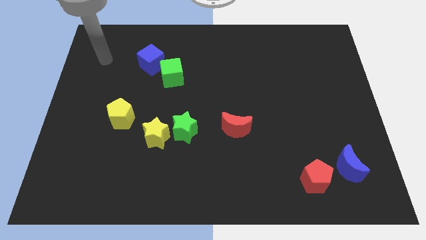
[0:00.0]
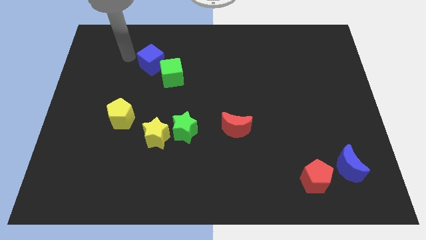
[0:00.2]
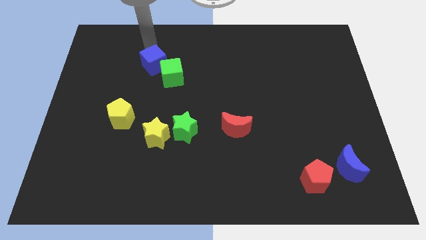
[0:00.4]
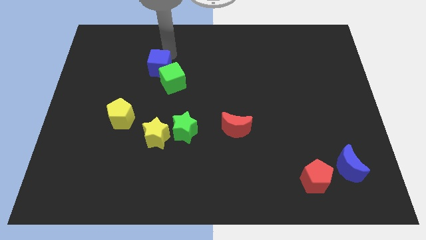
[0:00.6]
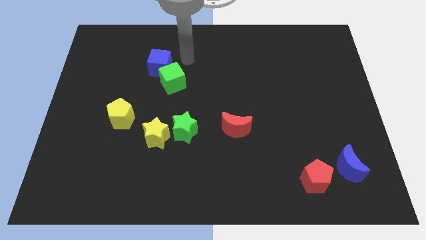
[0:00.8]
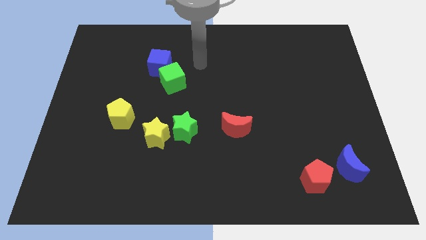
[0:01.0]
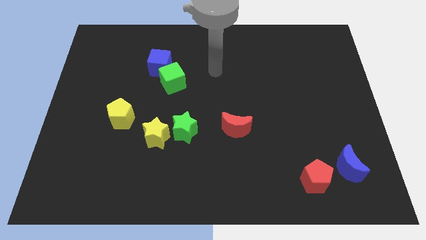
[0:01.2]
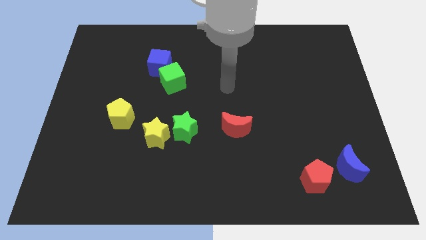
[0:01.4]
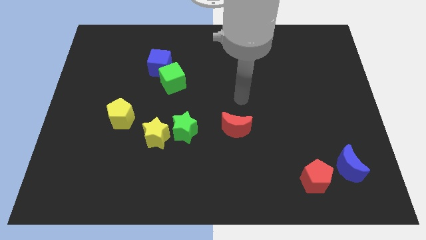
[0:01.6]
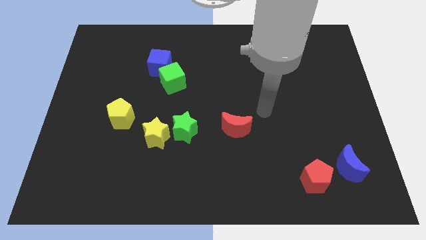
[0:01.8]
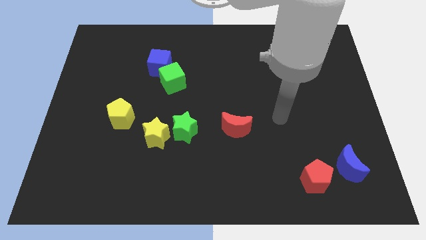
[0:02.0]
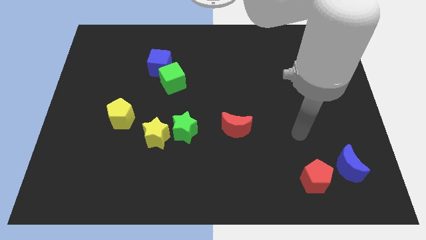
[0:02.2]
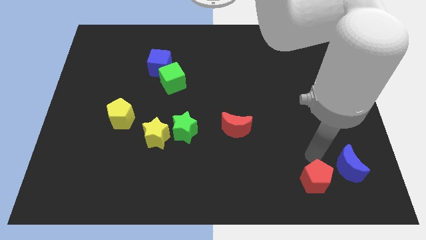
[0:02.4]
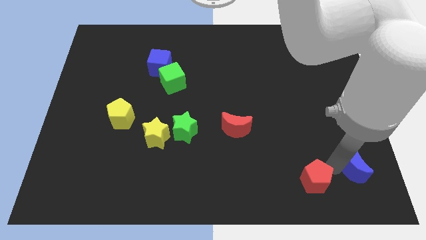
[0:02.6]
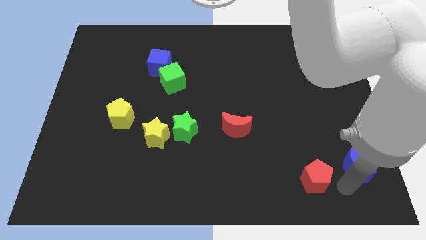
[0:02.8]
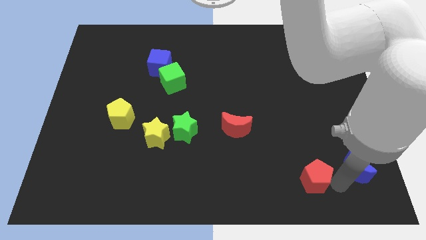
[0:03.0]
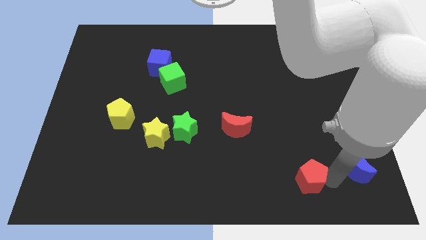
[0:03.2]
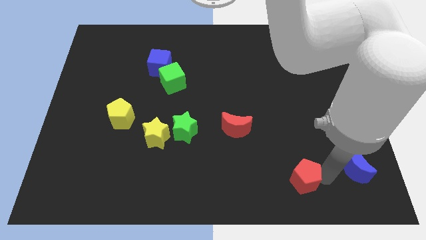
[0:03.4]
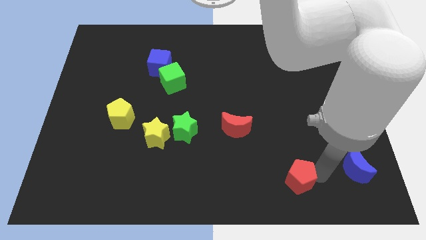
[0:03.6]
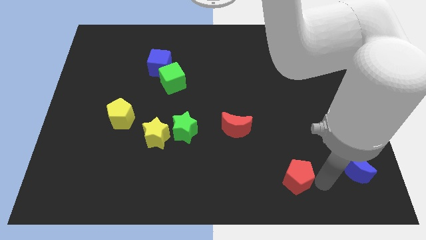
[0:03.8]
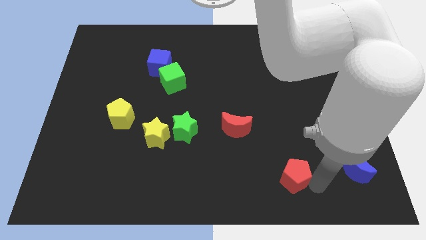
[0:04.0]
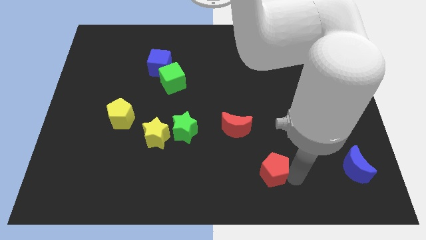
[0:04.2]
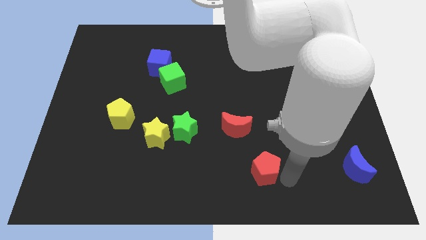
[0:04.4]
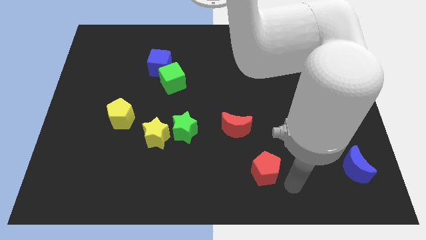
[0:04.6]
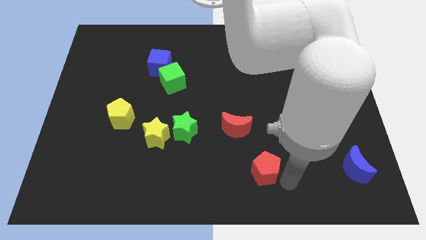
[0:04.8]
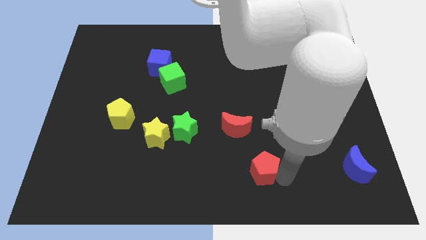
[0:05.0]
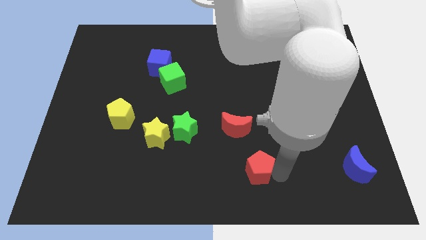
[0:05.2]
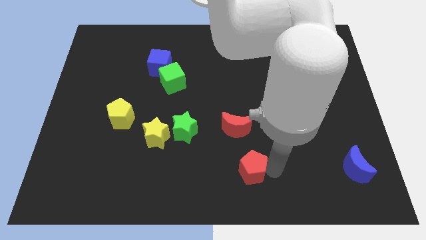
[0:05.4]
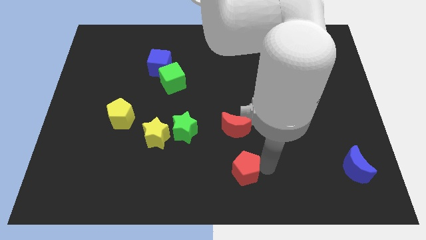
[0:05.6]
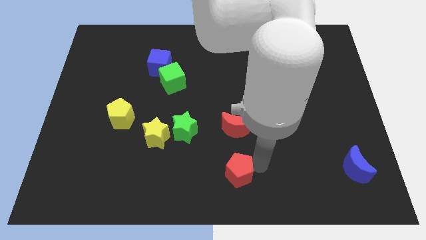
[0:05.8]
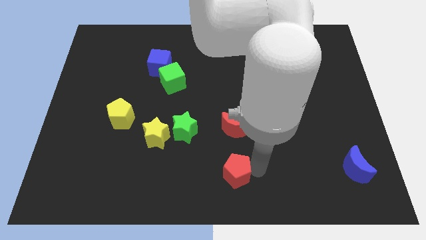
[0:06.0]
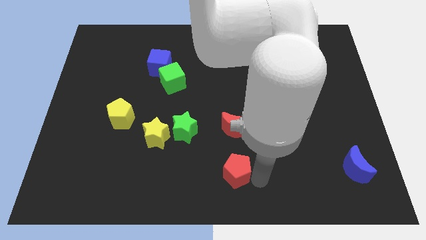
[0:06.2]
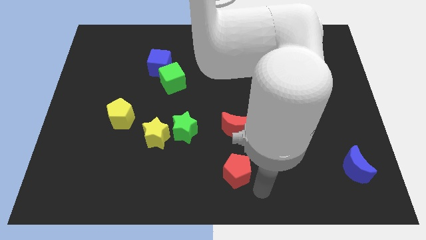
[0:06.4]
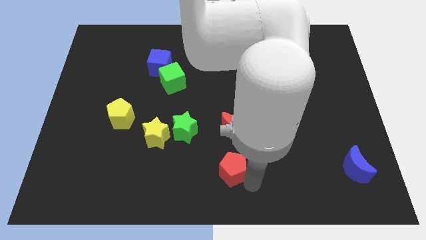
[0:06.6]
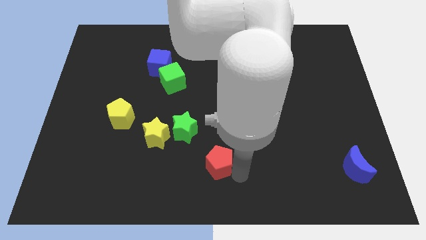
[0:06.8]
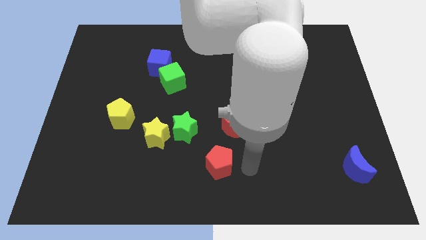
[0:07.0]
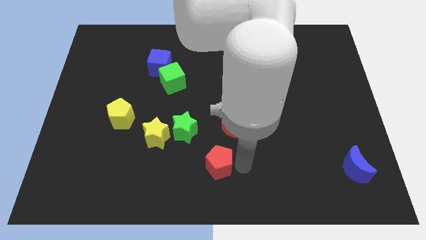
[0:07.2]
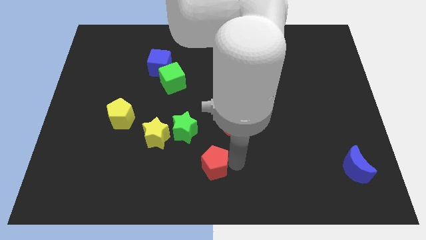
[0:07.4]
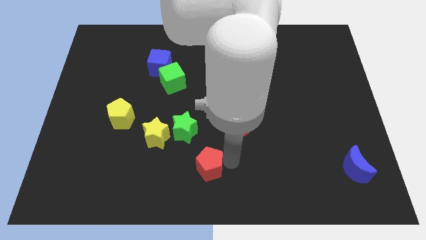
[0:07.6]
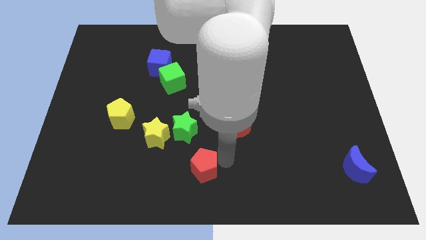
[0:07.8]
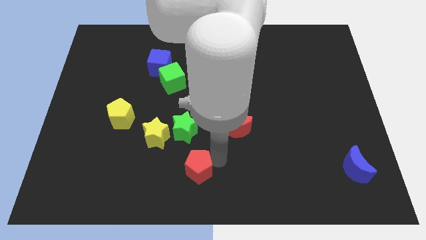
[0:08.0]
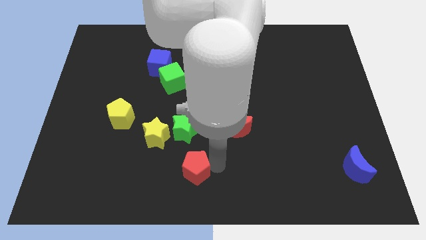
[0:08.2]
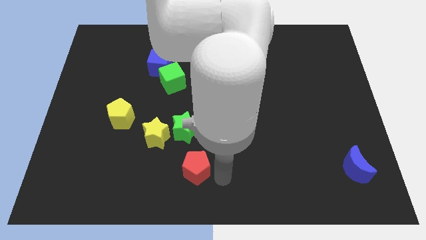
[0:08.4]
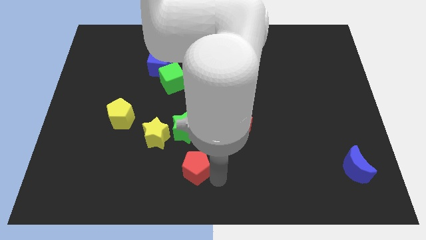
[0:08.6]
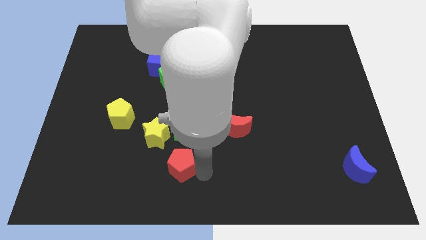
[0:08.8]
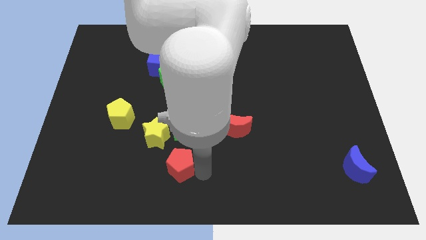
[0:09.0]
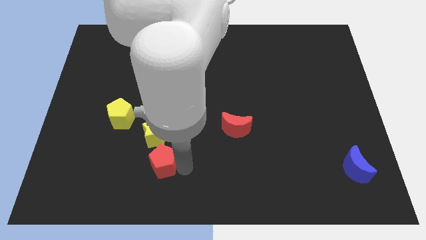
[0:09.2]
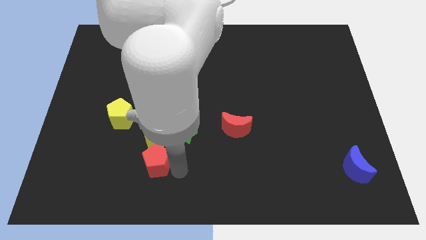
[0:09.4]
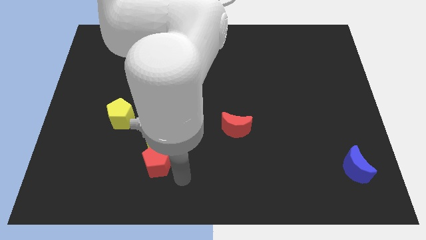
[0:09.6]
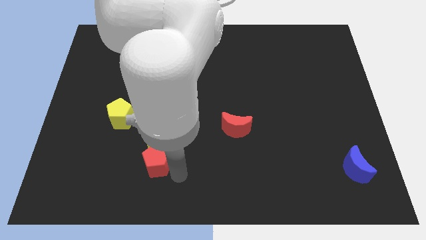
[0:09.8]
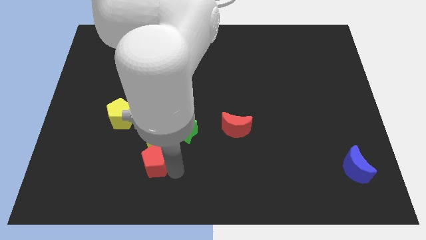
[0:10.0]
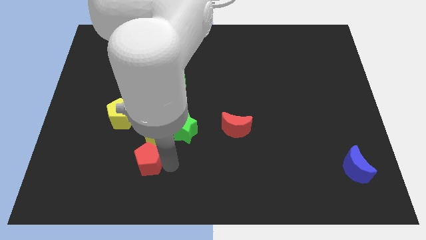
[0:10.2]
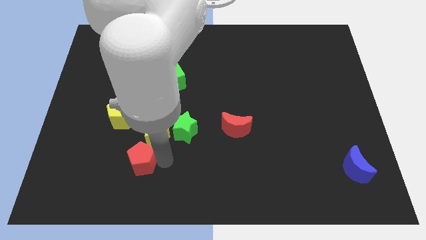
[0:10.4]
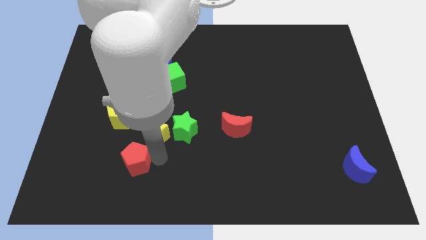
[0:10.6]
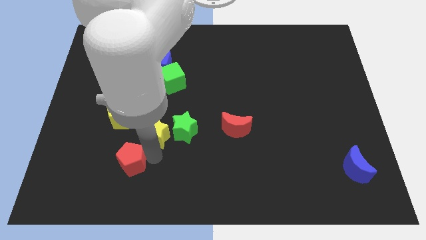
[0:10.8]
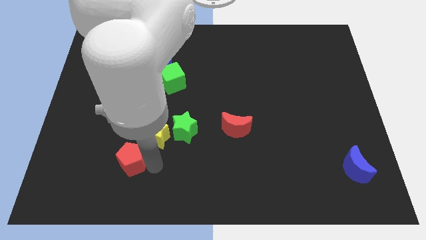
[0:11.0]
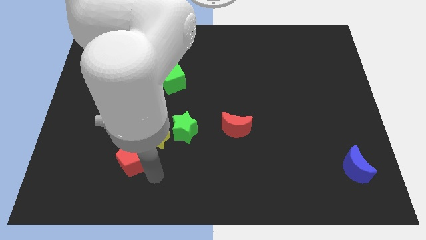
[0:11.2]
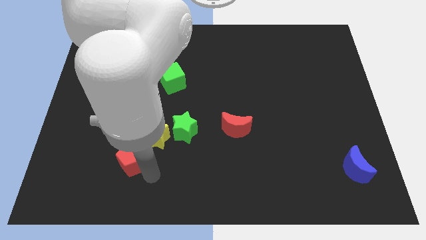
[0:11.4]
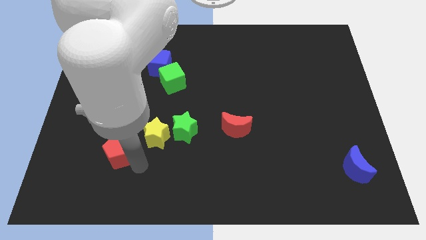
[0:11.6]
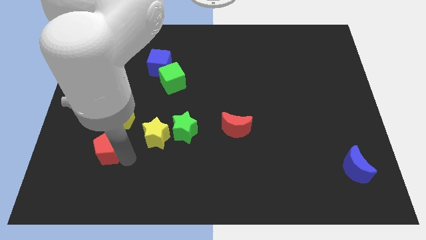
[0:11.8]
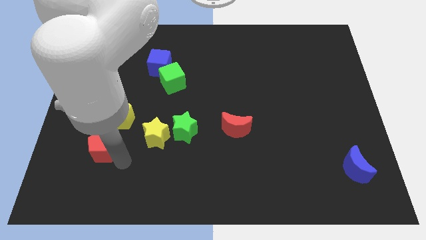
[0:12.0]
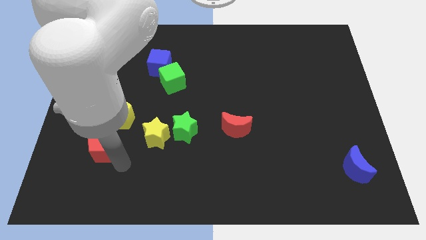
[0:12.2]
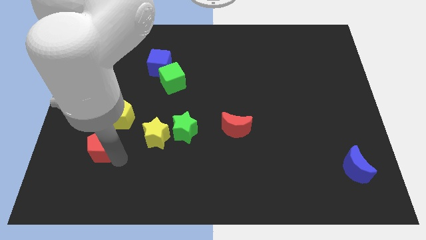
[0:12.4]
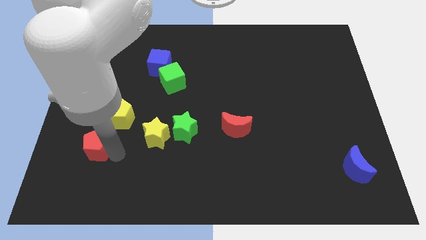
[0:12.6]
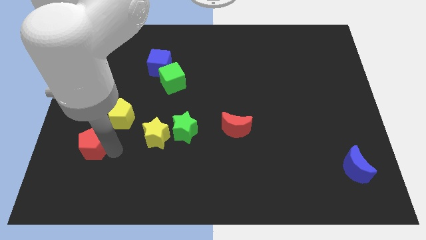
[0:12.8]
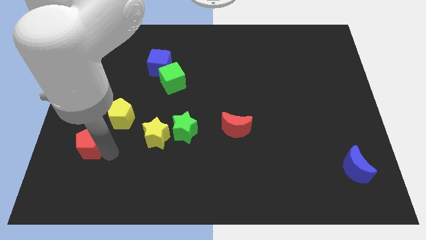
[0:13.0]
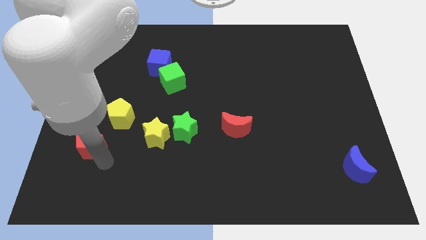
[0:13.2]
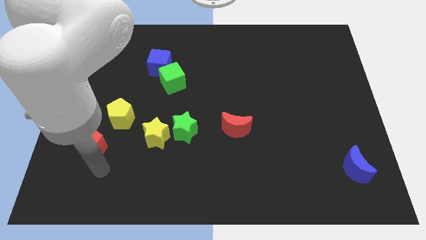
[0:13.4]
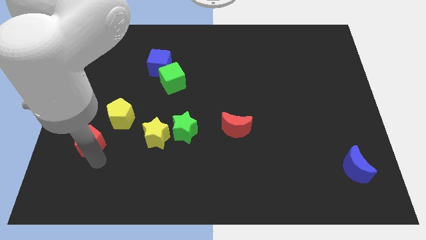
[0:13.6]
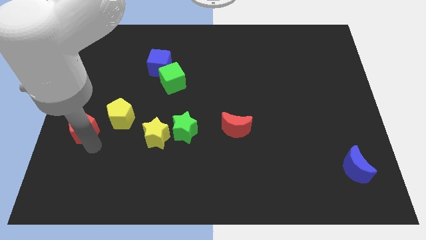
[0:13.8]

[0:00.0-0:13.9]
put the red pentagon to the left side

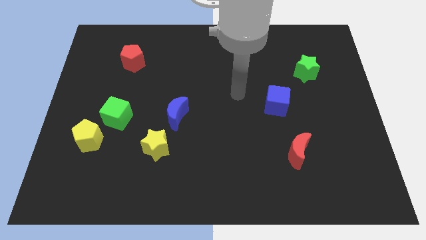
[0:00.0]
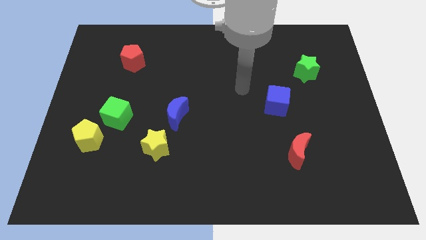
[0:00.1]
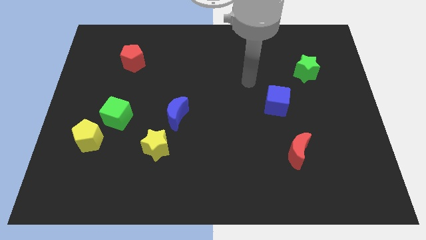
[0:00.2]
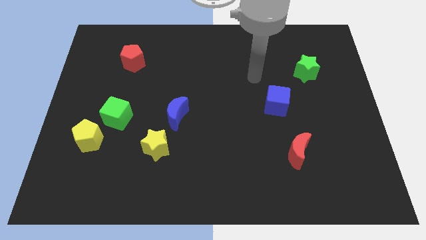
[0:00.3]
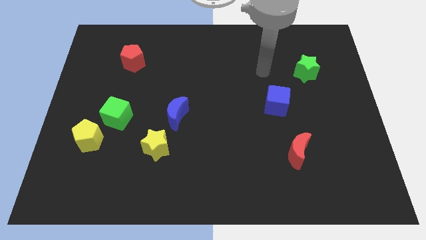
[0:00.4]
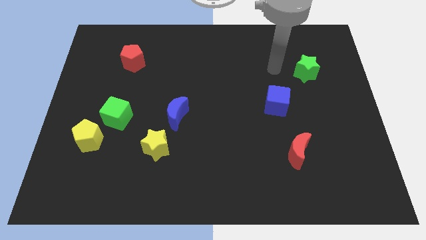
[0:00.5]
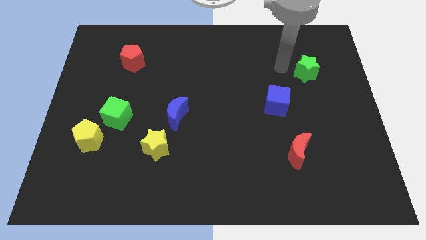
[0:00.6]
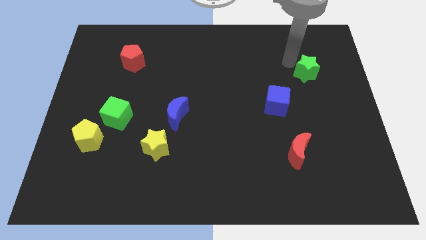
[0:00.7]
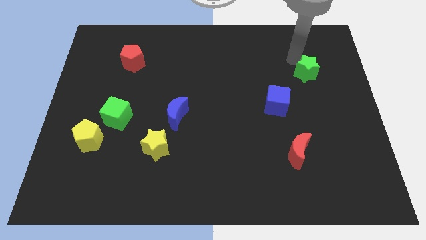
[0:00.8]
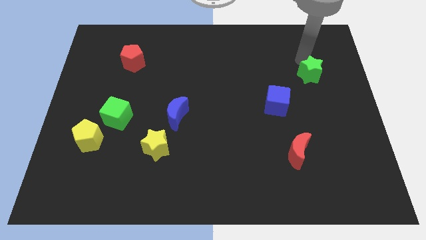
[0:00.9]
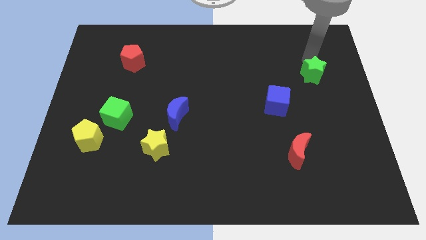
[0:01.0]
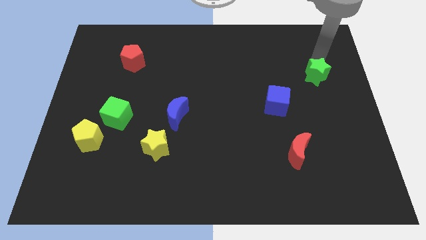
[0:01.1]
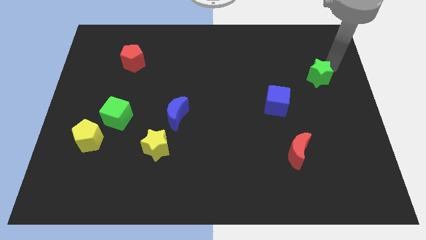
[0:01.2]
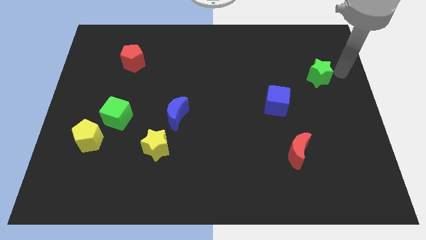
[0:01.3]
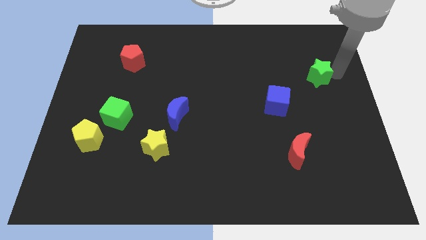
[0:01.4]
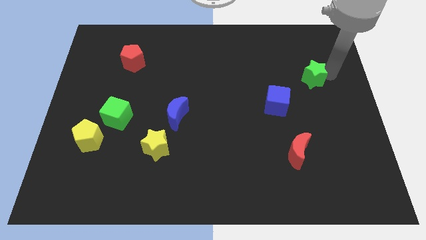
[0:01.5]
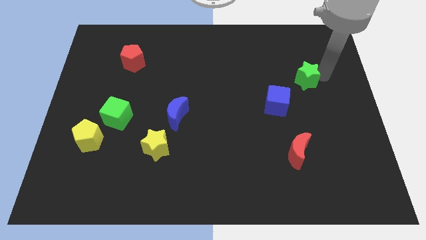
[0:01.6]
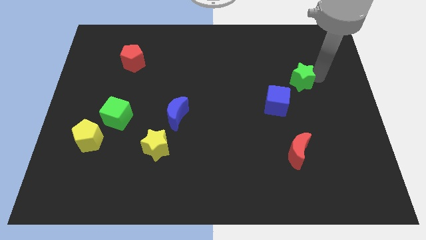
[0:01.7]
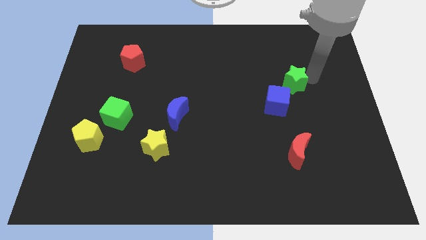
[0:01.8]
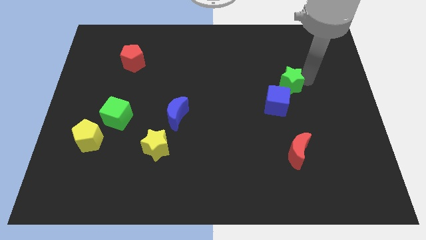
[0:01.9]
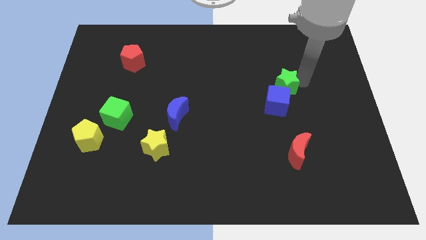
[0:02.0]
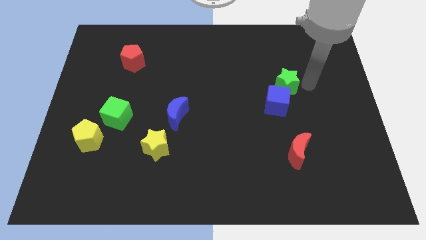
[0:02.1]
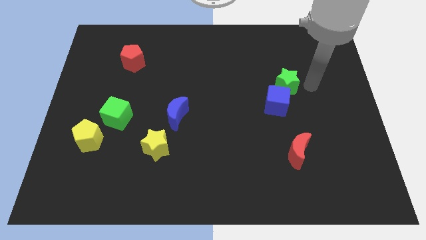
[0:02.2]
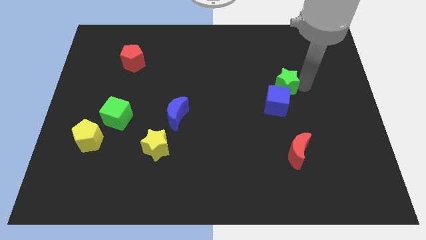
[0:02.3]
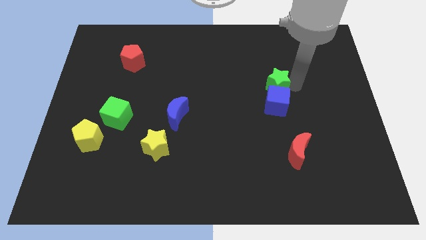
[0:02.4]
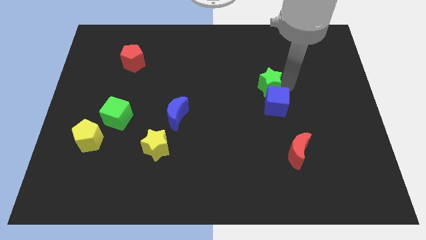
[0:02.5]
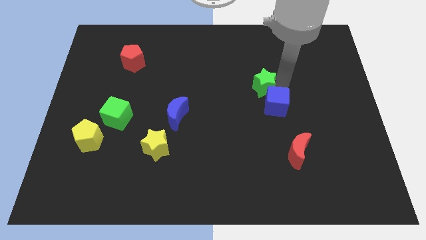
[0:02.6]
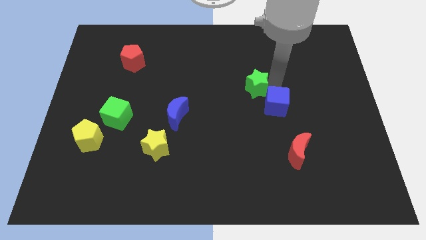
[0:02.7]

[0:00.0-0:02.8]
move the green star to the middle of the board
